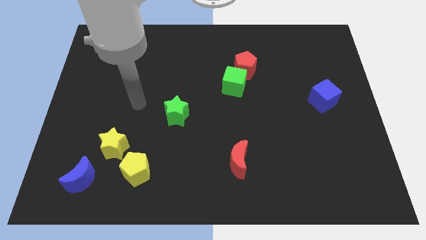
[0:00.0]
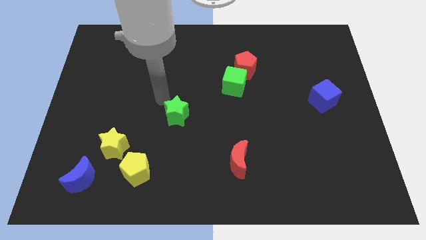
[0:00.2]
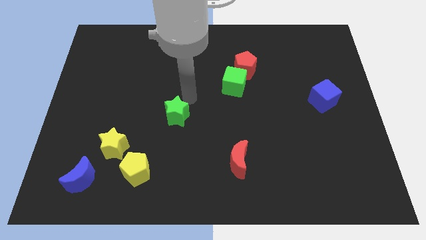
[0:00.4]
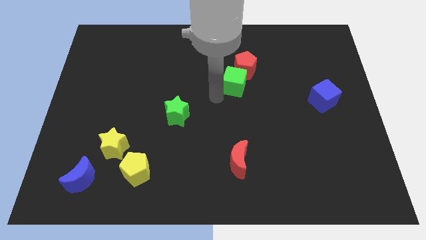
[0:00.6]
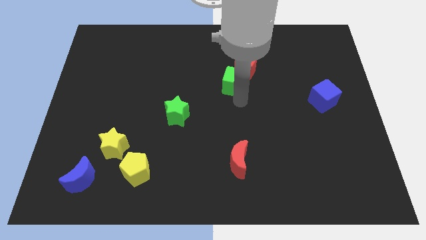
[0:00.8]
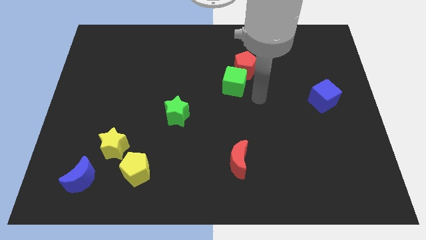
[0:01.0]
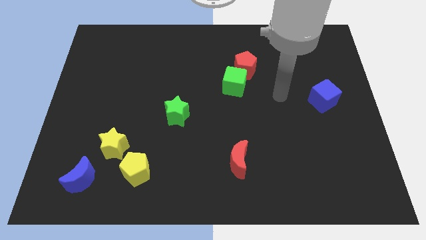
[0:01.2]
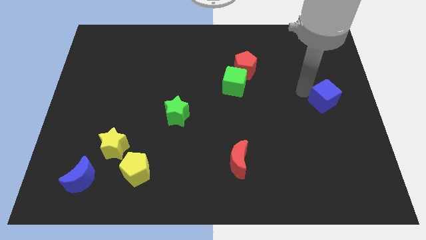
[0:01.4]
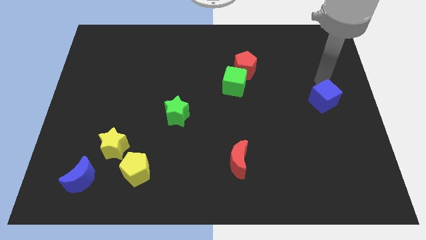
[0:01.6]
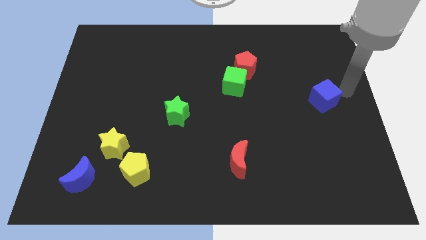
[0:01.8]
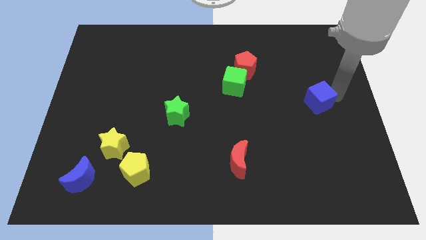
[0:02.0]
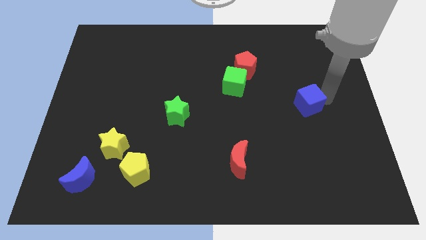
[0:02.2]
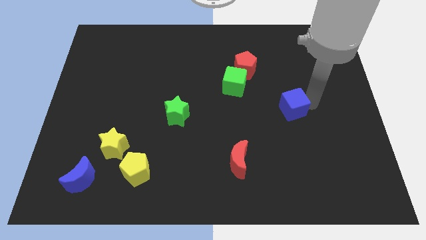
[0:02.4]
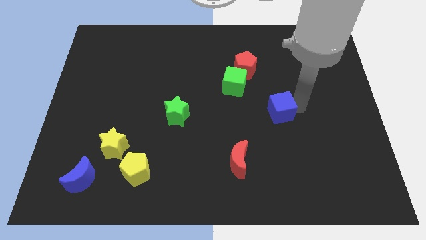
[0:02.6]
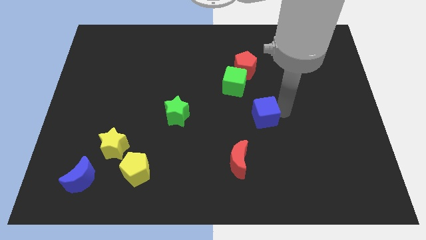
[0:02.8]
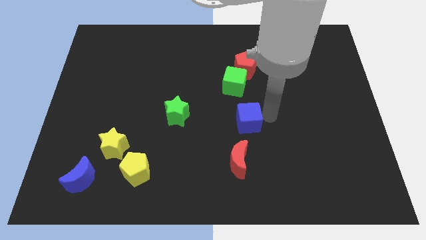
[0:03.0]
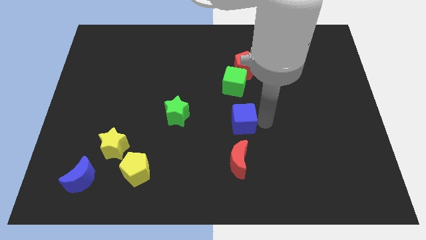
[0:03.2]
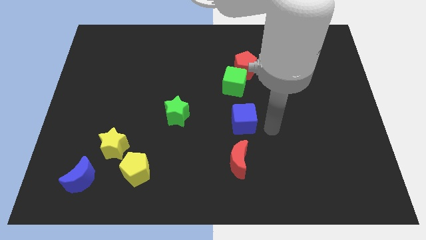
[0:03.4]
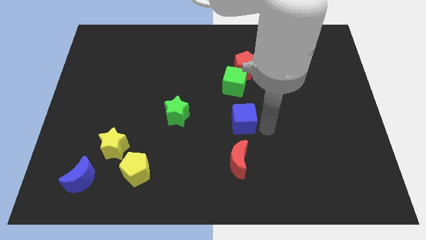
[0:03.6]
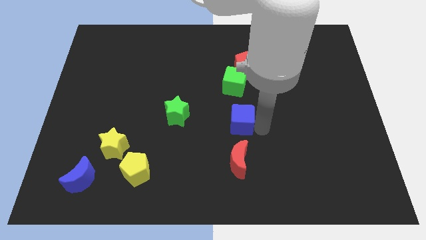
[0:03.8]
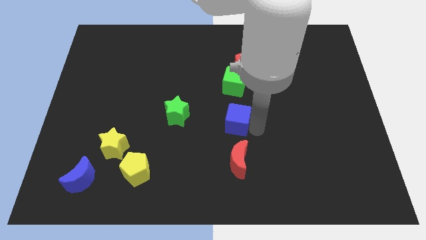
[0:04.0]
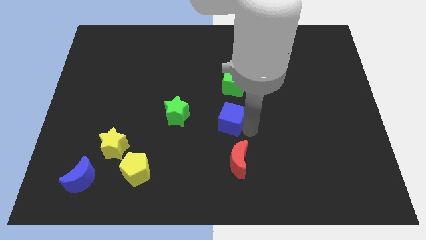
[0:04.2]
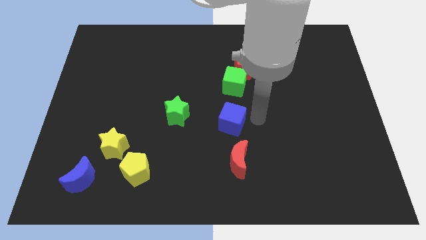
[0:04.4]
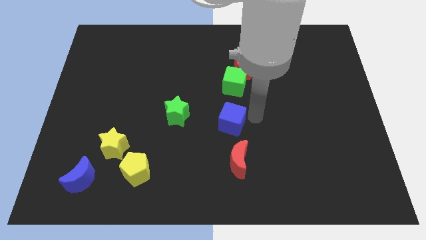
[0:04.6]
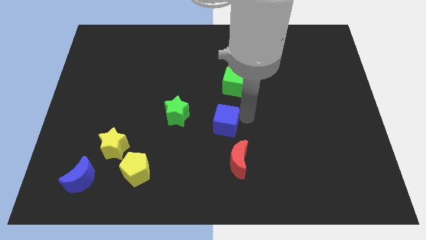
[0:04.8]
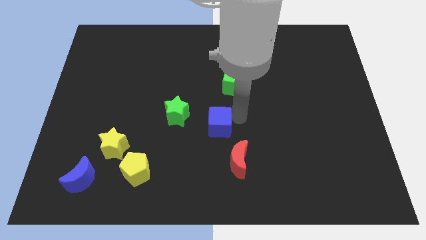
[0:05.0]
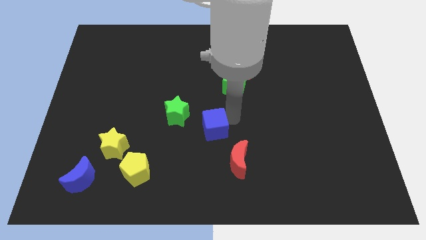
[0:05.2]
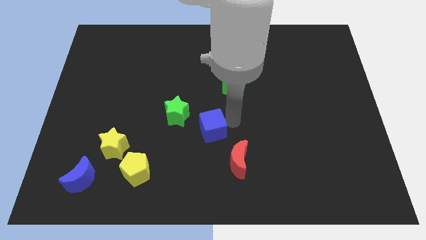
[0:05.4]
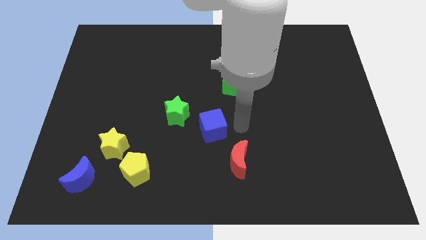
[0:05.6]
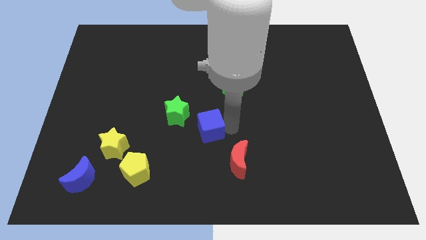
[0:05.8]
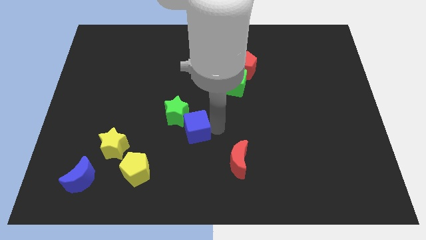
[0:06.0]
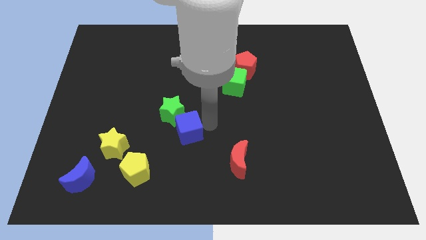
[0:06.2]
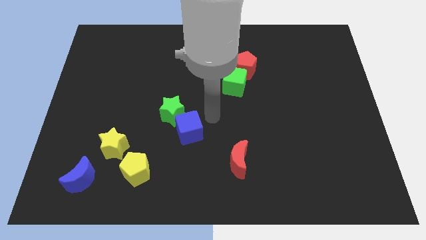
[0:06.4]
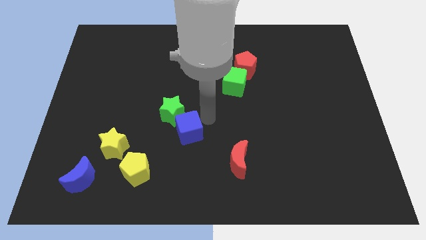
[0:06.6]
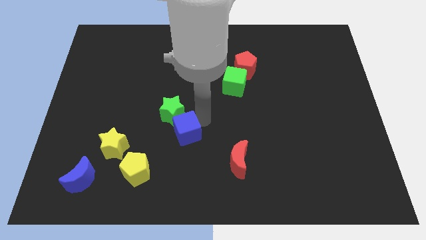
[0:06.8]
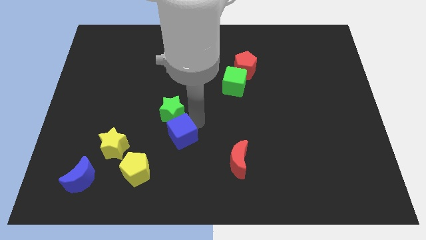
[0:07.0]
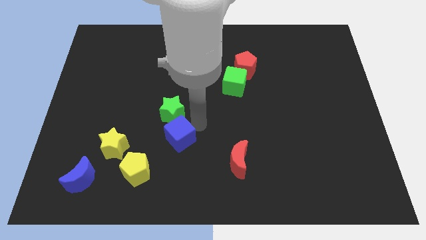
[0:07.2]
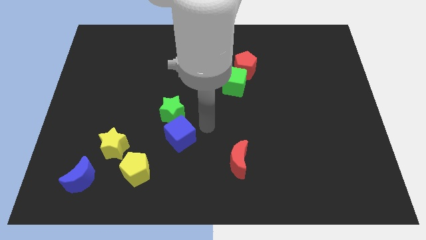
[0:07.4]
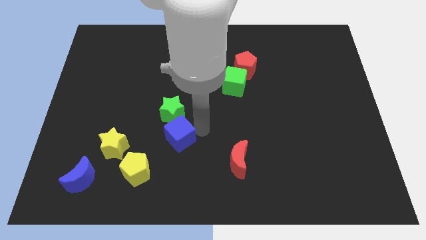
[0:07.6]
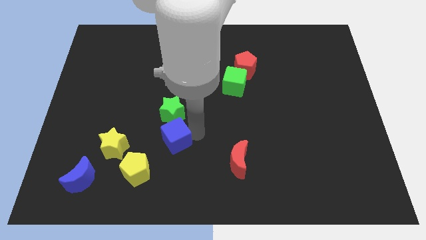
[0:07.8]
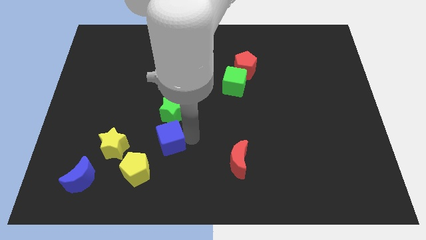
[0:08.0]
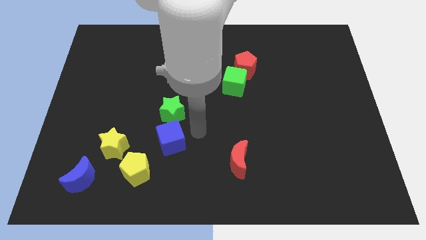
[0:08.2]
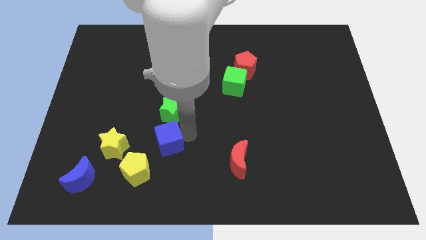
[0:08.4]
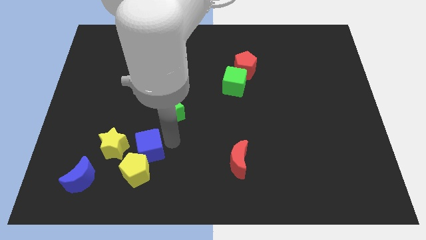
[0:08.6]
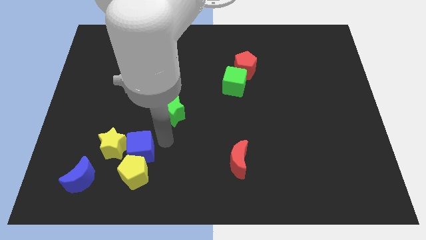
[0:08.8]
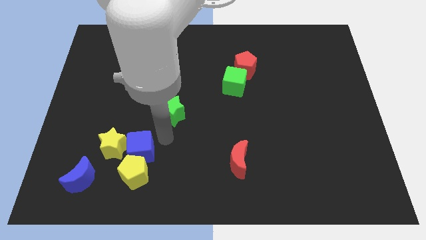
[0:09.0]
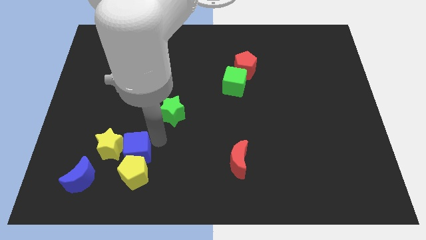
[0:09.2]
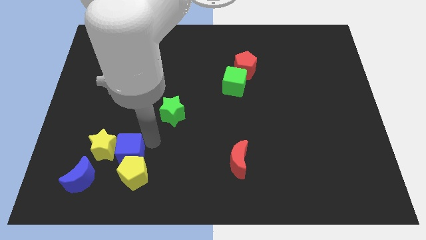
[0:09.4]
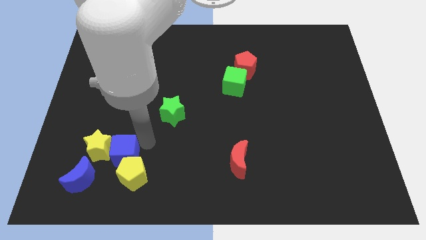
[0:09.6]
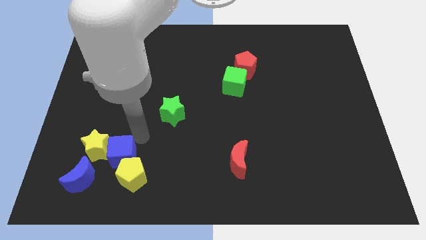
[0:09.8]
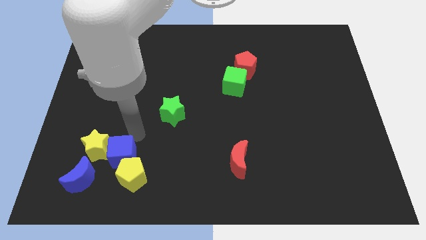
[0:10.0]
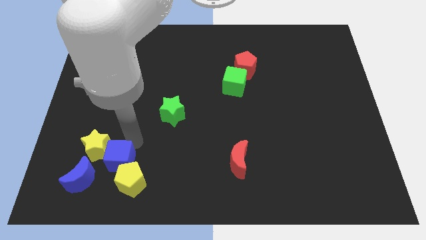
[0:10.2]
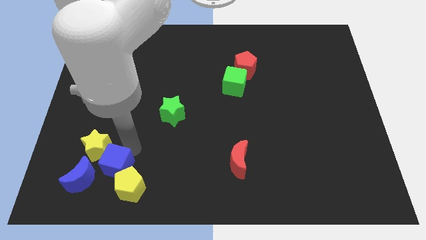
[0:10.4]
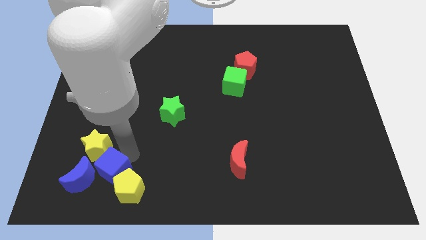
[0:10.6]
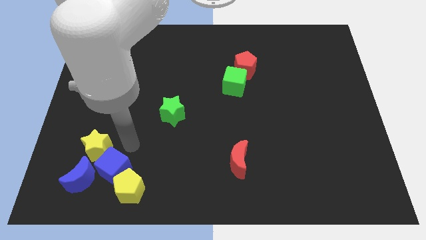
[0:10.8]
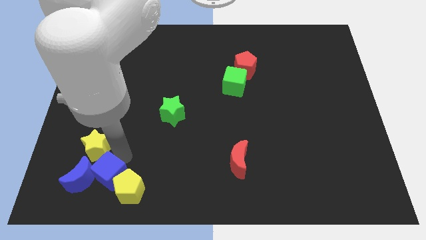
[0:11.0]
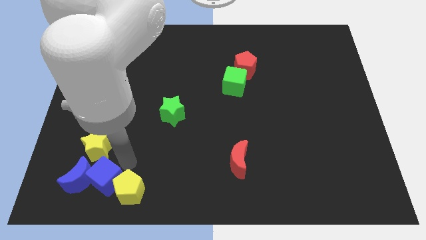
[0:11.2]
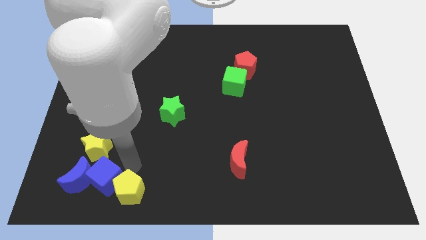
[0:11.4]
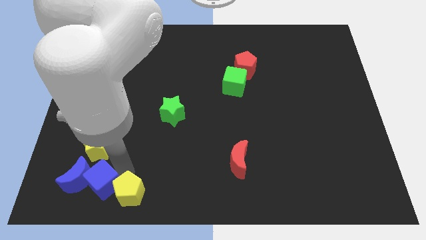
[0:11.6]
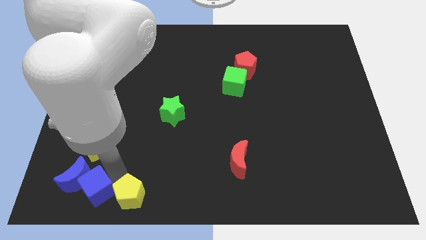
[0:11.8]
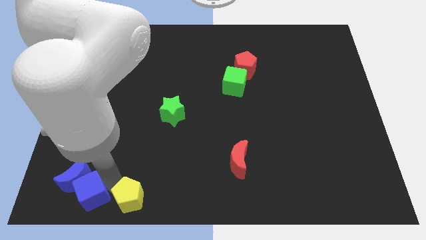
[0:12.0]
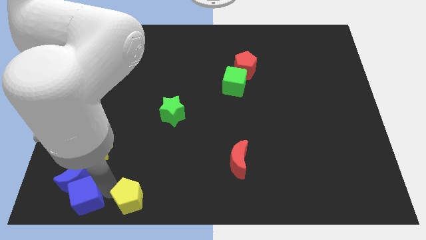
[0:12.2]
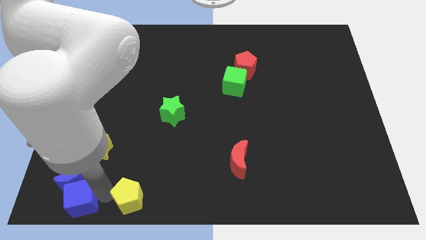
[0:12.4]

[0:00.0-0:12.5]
move the blue cube to the lower left corner

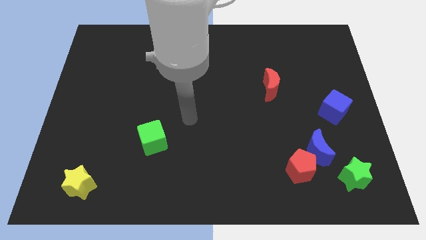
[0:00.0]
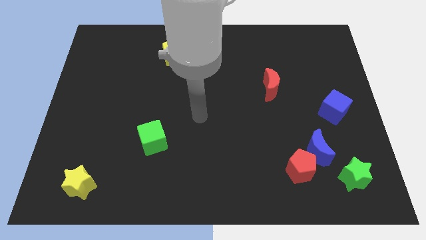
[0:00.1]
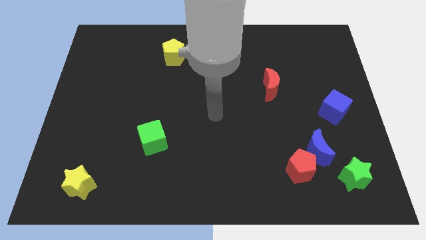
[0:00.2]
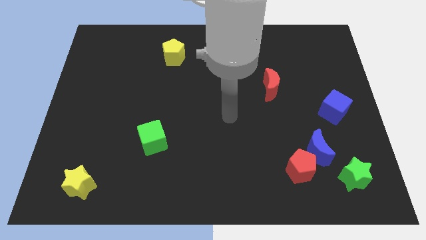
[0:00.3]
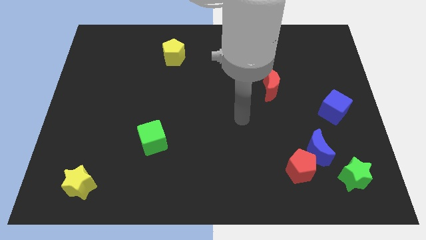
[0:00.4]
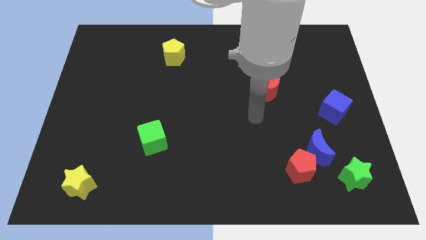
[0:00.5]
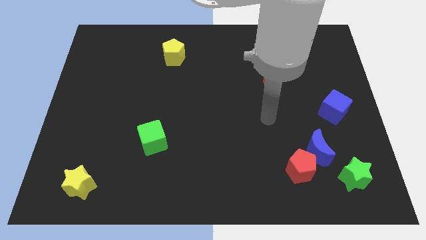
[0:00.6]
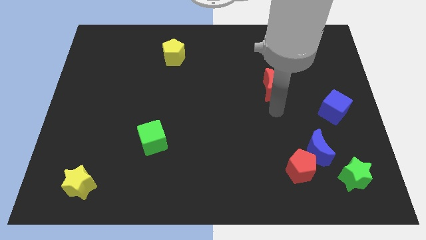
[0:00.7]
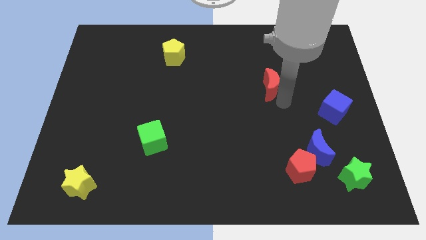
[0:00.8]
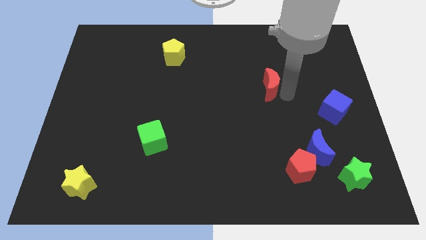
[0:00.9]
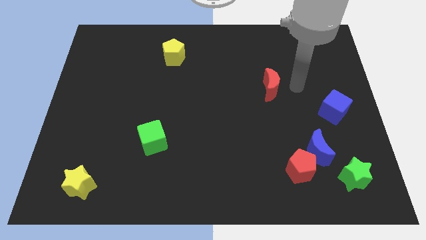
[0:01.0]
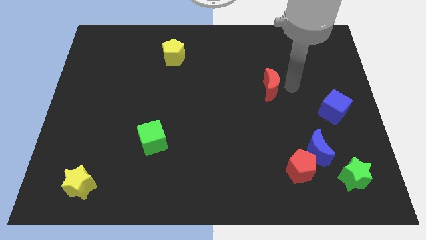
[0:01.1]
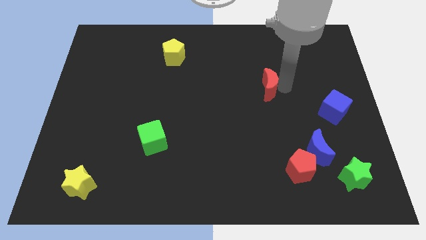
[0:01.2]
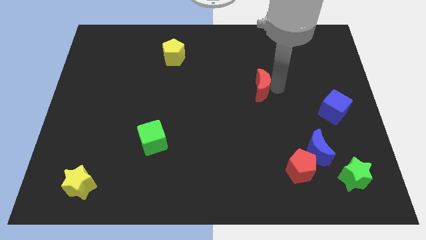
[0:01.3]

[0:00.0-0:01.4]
move the red moon to the center
